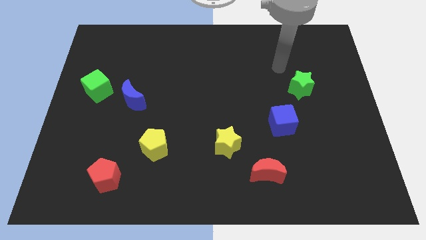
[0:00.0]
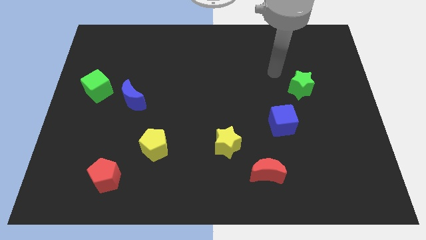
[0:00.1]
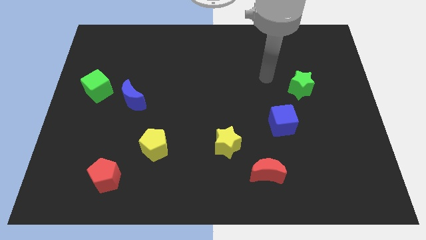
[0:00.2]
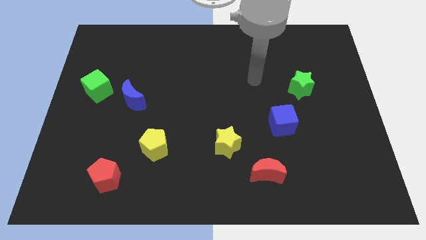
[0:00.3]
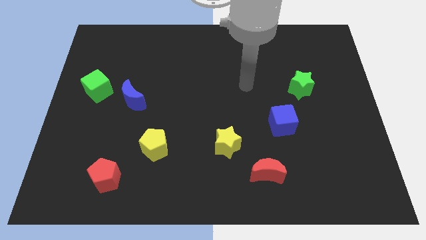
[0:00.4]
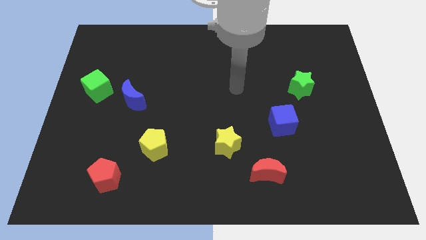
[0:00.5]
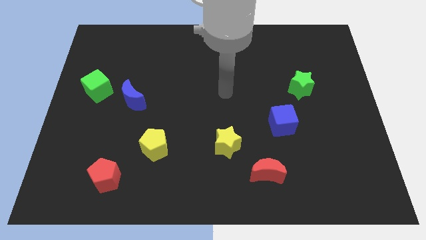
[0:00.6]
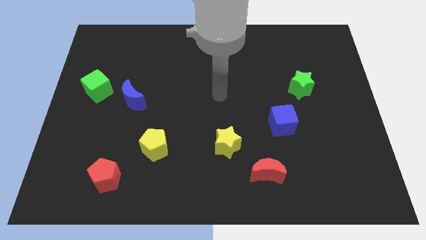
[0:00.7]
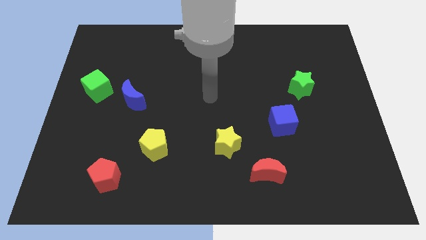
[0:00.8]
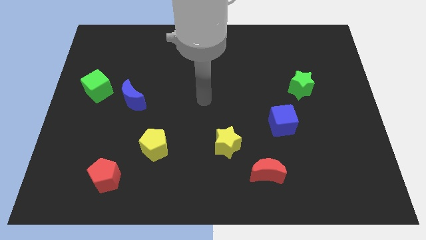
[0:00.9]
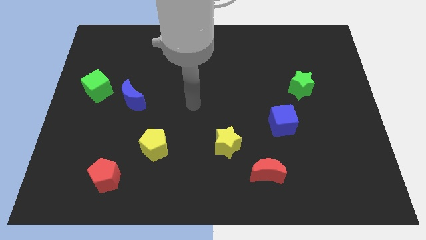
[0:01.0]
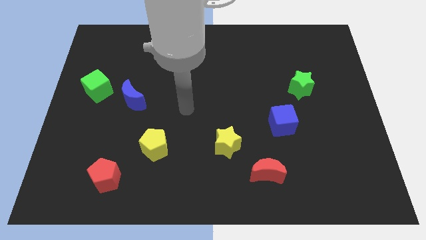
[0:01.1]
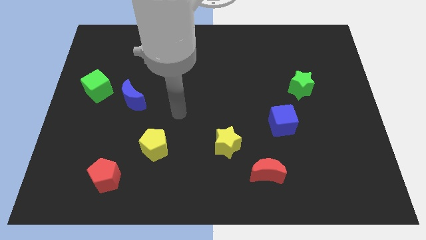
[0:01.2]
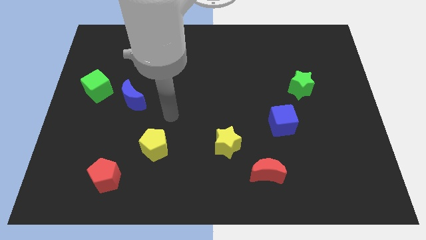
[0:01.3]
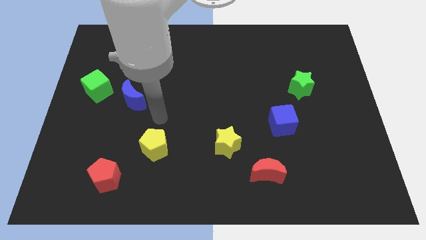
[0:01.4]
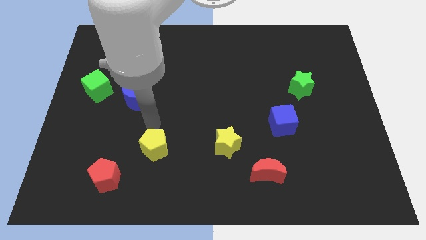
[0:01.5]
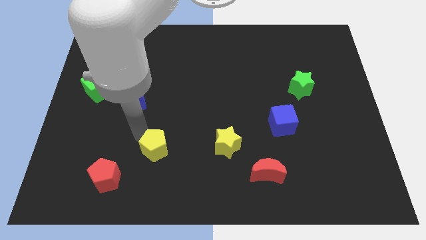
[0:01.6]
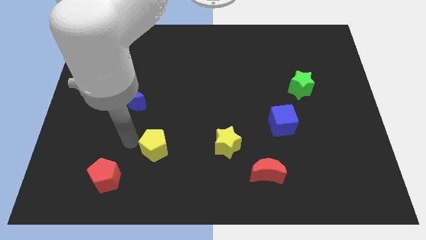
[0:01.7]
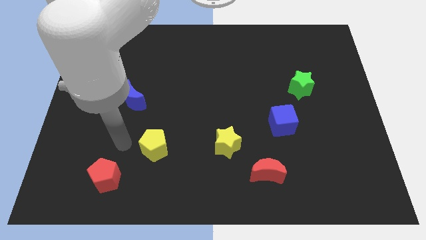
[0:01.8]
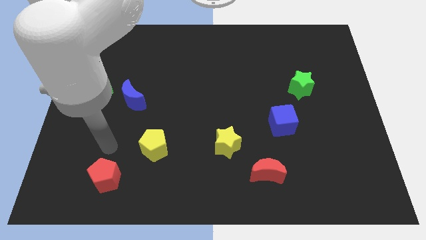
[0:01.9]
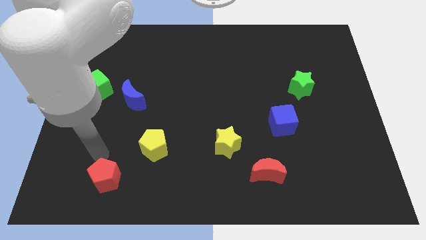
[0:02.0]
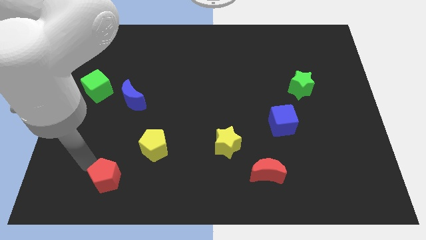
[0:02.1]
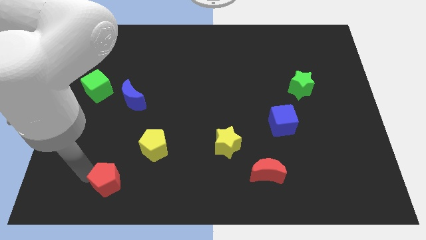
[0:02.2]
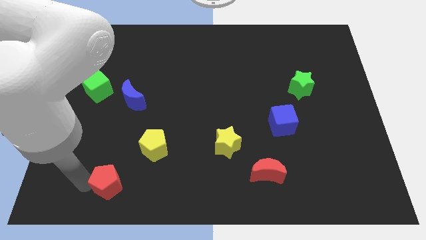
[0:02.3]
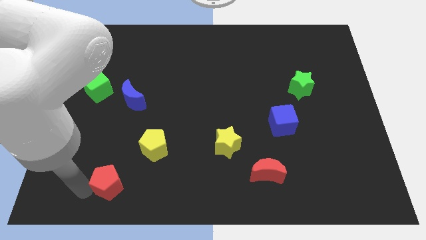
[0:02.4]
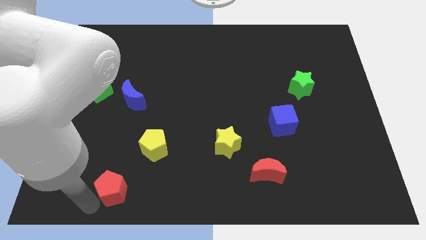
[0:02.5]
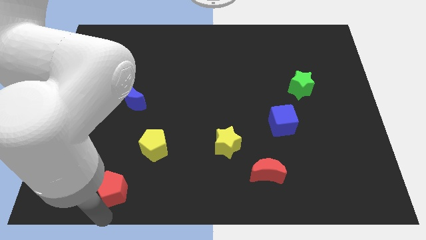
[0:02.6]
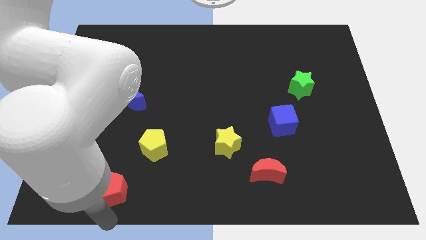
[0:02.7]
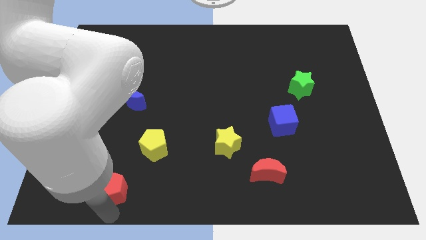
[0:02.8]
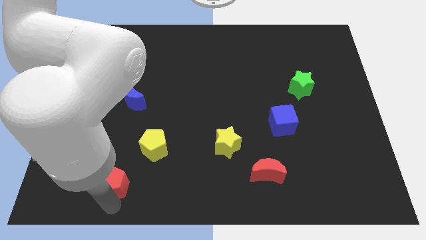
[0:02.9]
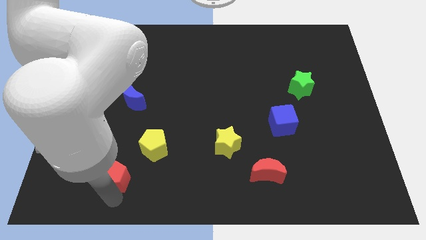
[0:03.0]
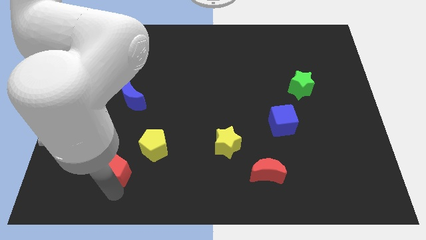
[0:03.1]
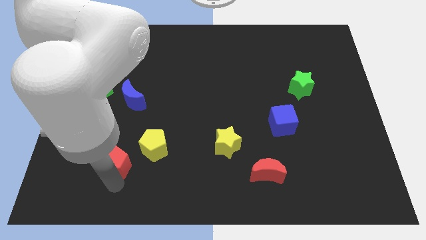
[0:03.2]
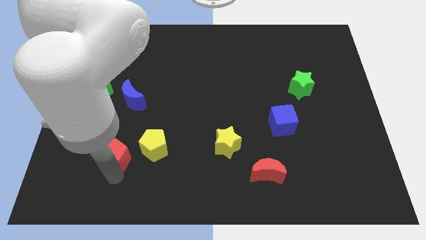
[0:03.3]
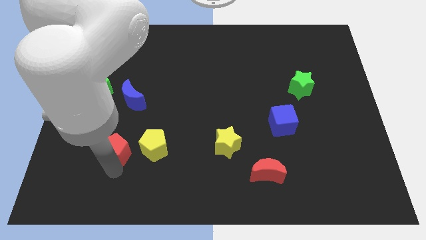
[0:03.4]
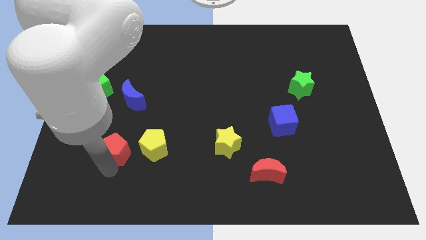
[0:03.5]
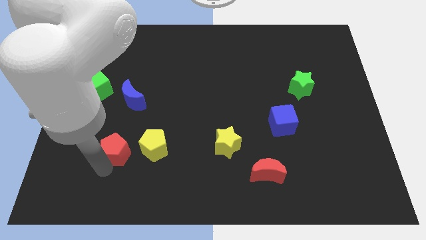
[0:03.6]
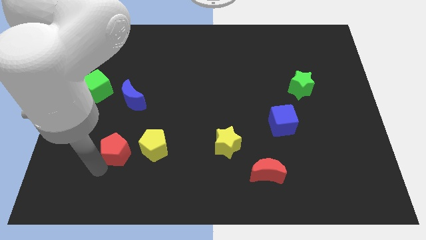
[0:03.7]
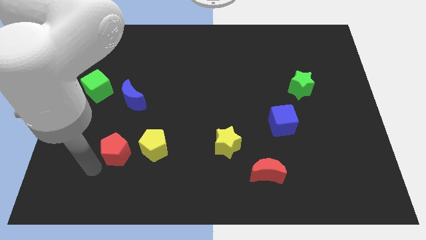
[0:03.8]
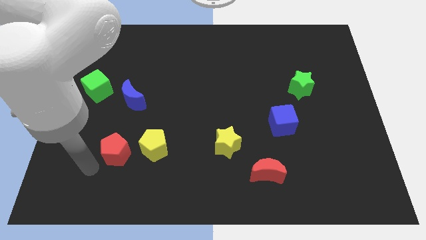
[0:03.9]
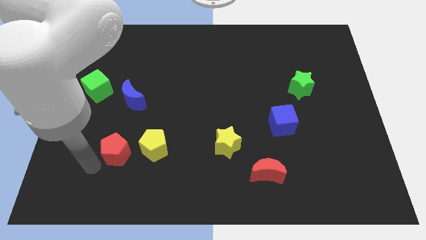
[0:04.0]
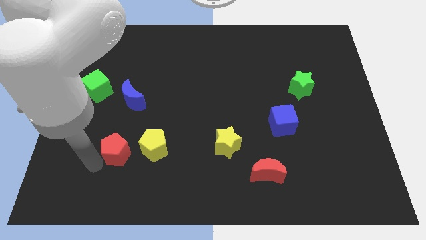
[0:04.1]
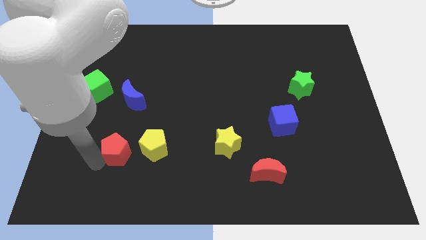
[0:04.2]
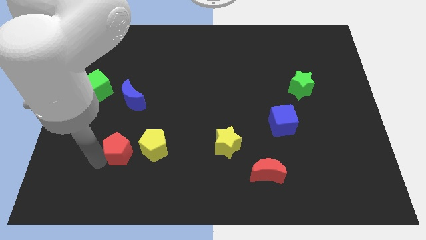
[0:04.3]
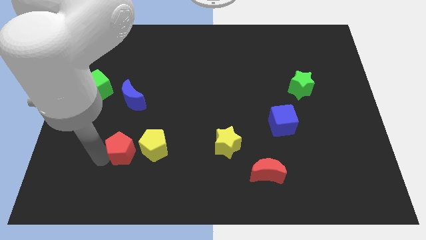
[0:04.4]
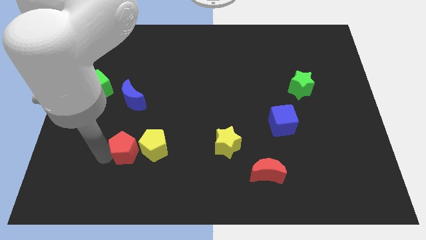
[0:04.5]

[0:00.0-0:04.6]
put the red pentagon to the top left of the yellow pentagon

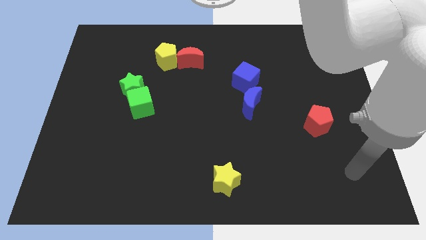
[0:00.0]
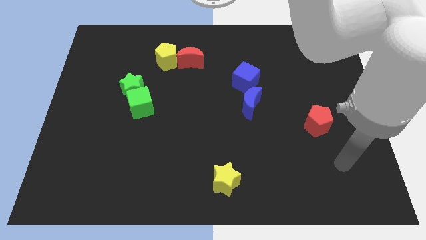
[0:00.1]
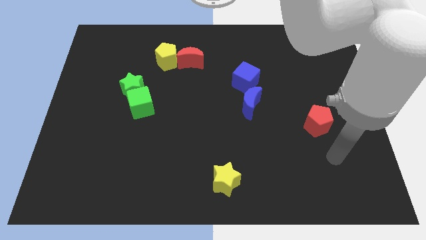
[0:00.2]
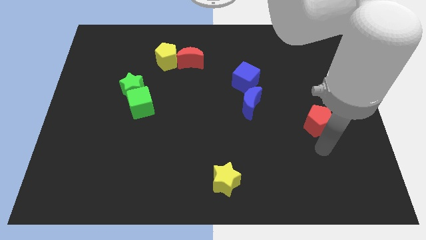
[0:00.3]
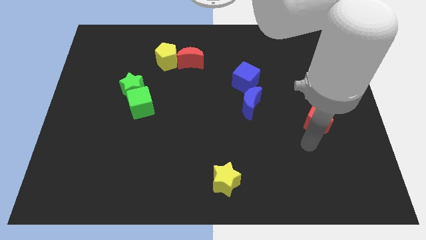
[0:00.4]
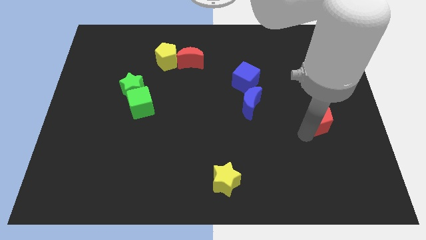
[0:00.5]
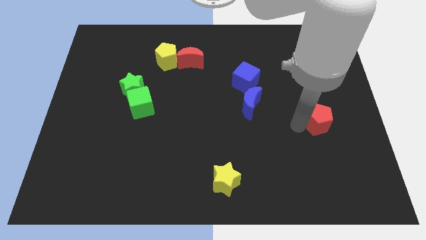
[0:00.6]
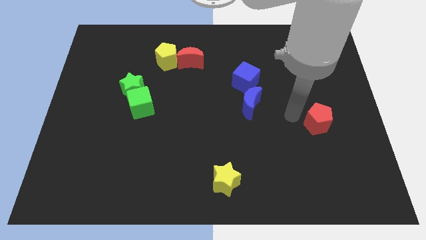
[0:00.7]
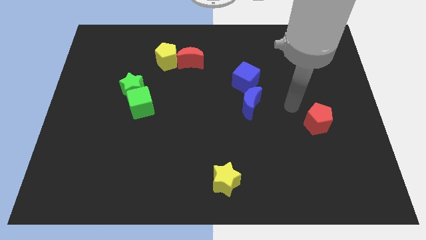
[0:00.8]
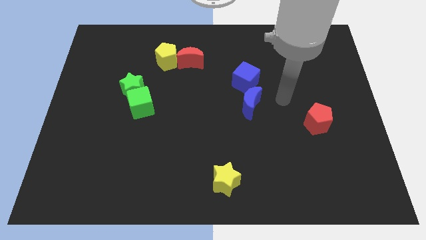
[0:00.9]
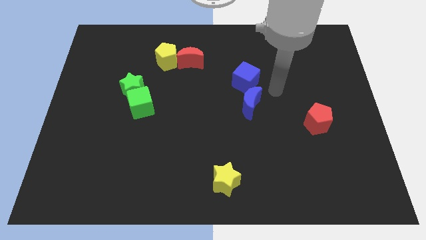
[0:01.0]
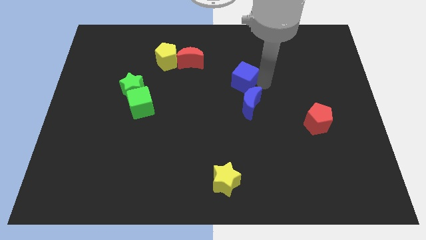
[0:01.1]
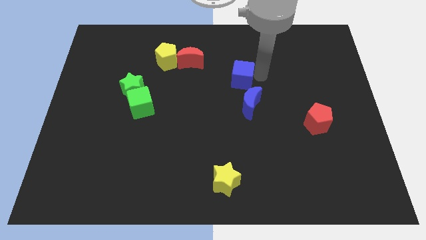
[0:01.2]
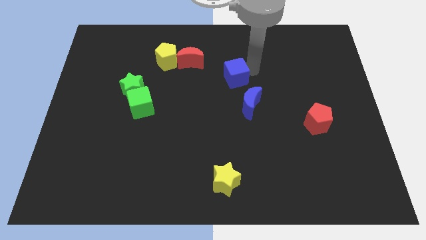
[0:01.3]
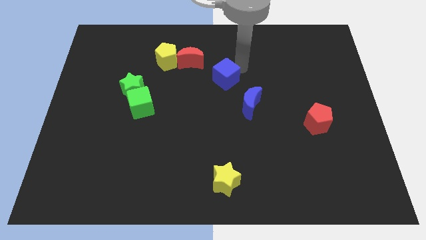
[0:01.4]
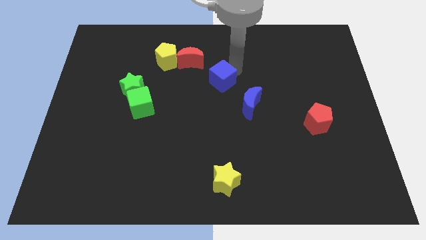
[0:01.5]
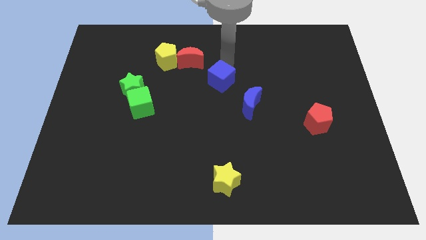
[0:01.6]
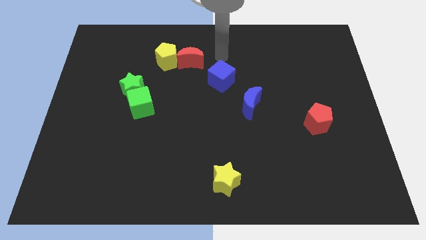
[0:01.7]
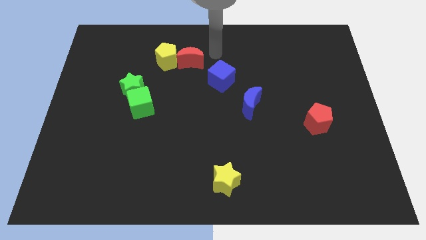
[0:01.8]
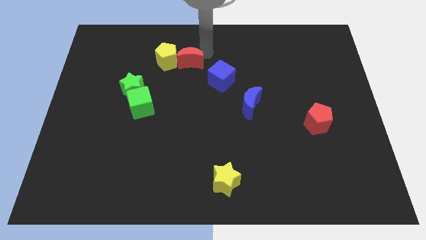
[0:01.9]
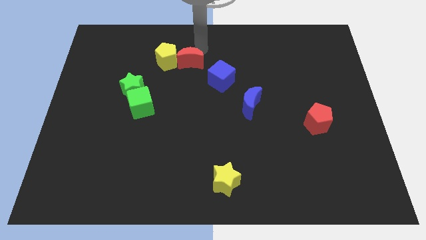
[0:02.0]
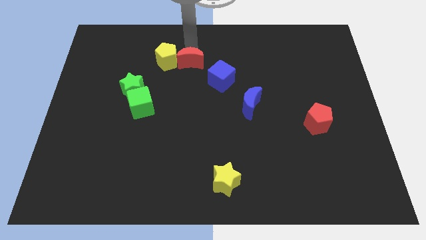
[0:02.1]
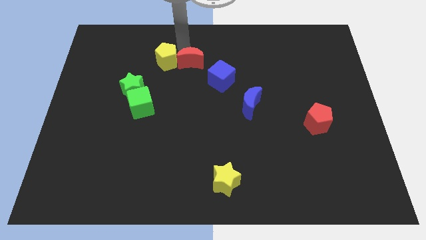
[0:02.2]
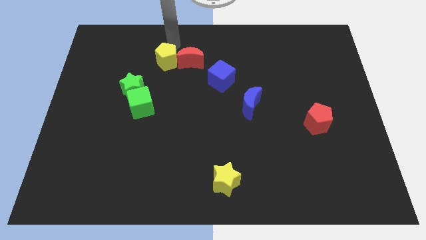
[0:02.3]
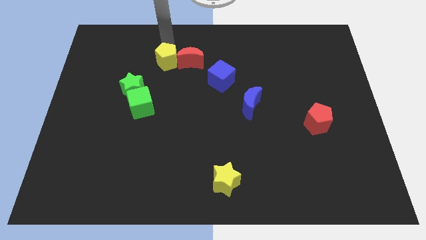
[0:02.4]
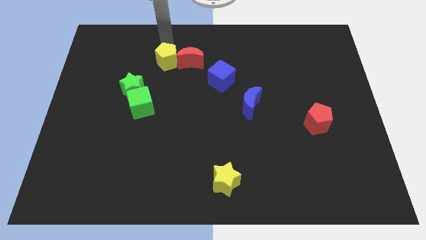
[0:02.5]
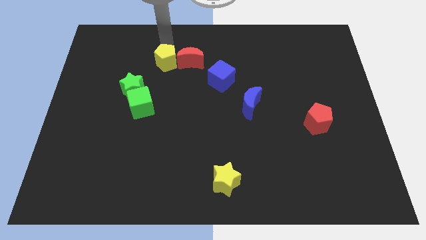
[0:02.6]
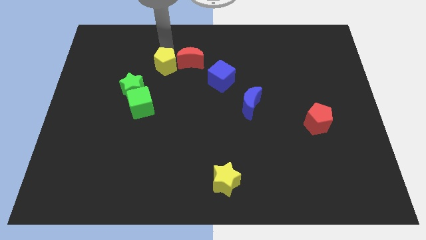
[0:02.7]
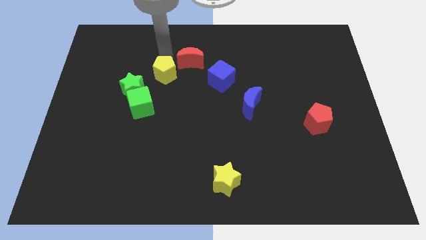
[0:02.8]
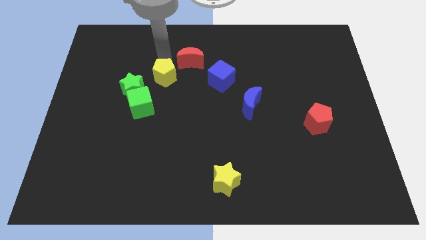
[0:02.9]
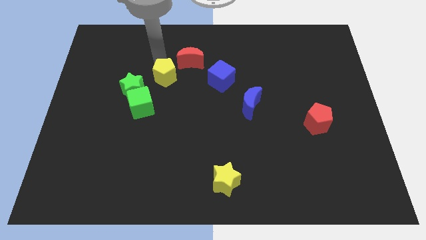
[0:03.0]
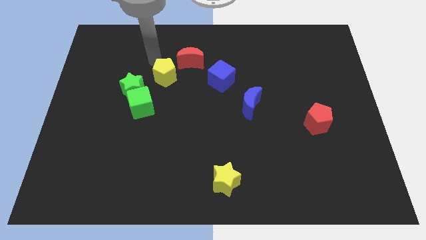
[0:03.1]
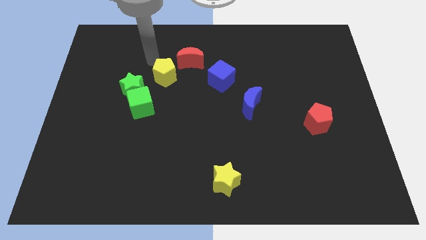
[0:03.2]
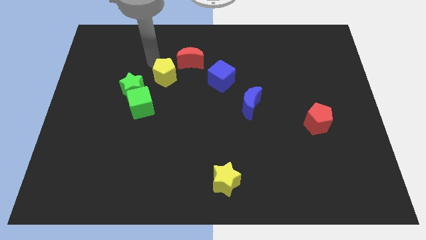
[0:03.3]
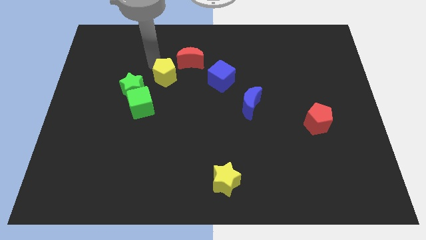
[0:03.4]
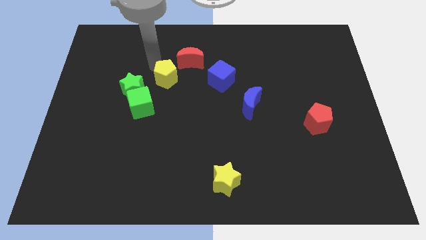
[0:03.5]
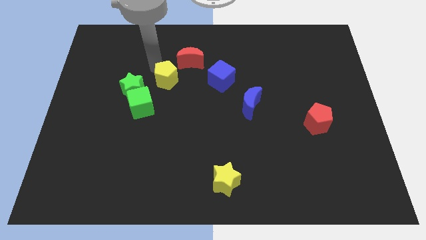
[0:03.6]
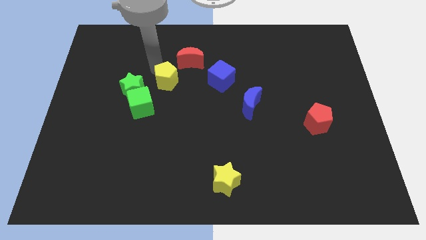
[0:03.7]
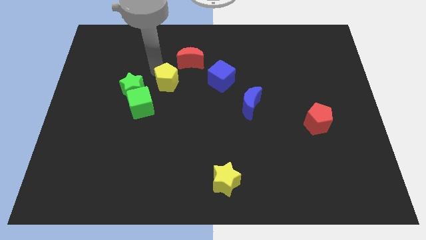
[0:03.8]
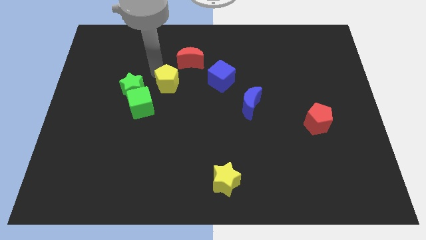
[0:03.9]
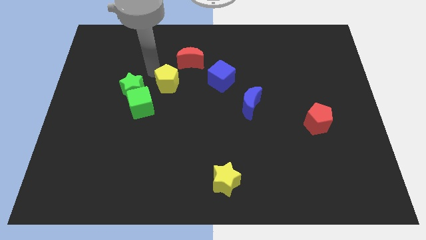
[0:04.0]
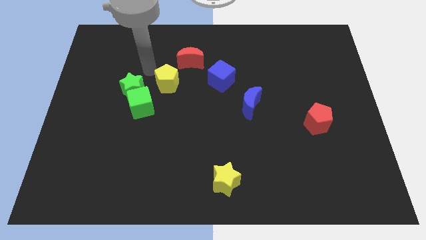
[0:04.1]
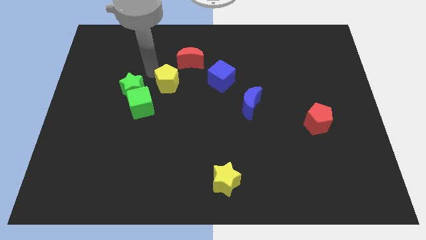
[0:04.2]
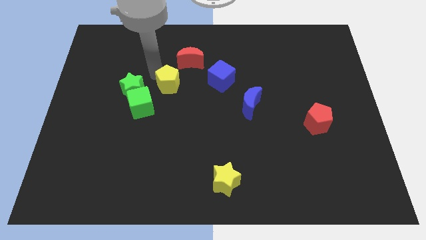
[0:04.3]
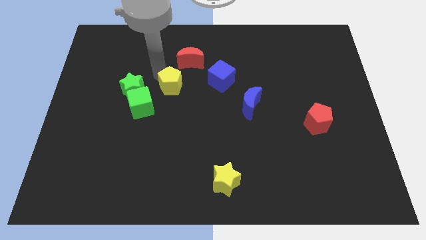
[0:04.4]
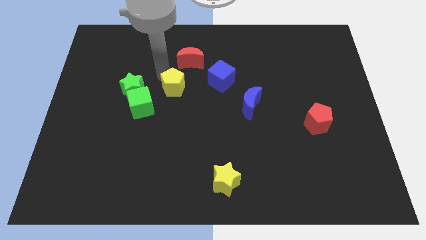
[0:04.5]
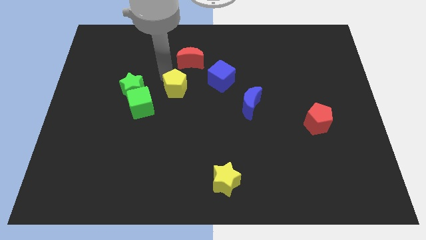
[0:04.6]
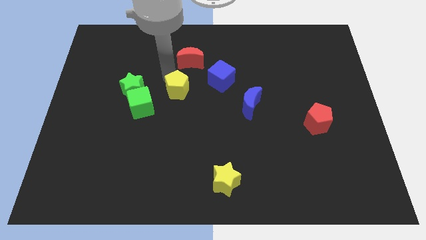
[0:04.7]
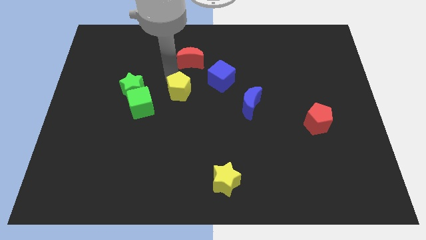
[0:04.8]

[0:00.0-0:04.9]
slide the yellow pentagon just right of the green cube
